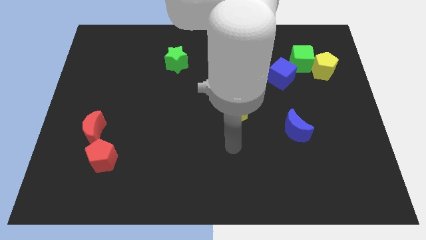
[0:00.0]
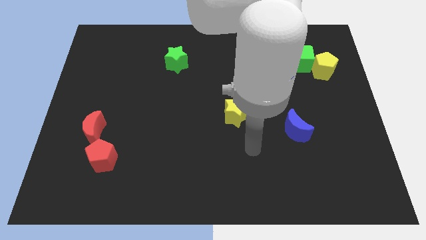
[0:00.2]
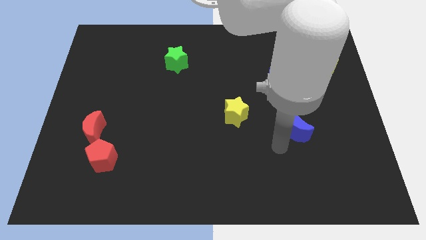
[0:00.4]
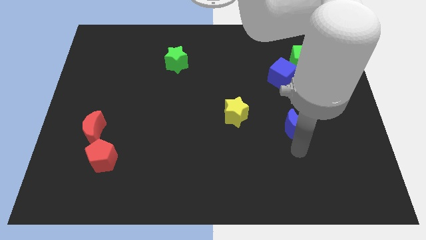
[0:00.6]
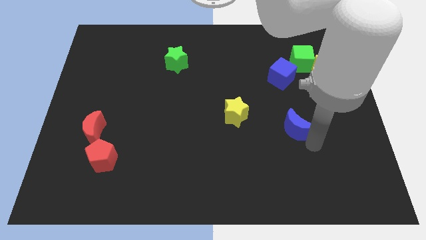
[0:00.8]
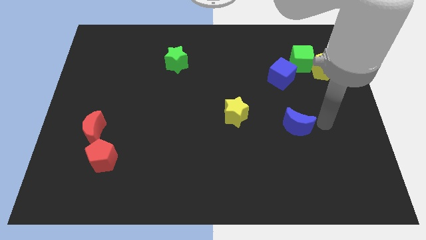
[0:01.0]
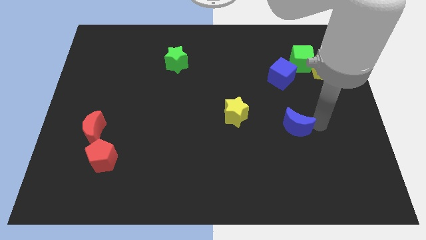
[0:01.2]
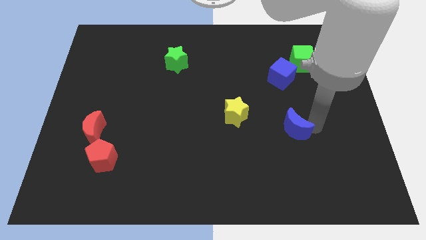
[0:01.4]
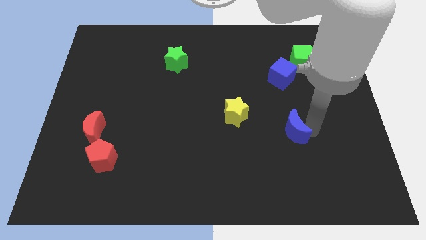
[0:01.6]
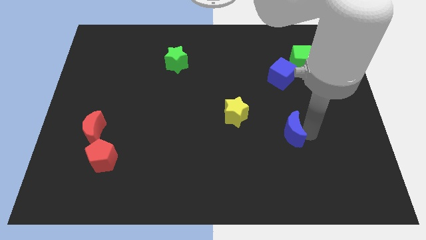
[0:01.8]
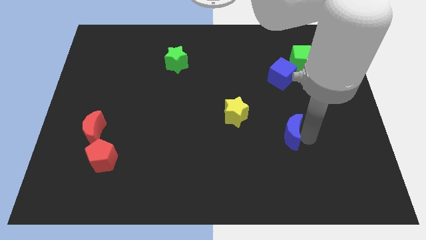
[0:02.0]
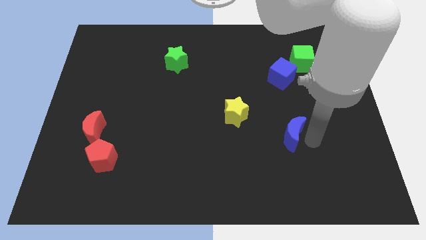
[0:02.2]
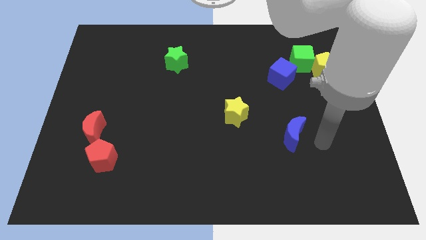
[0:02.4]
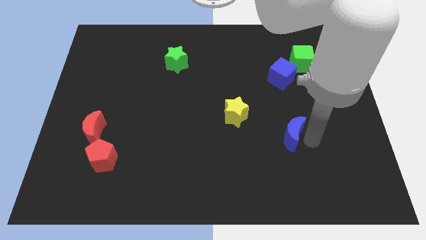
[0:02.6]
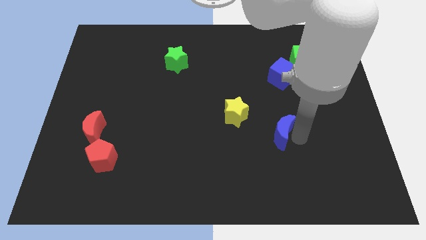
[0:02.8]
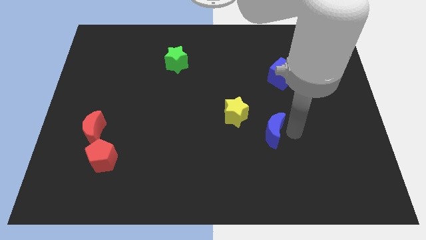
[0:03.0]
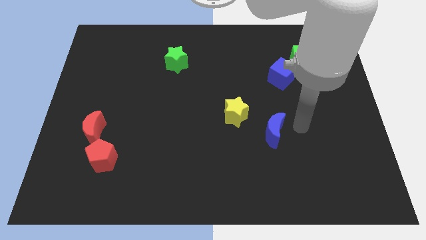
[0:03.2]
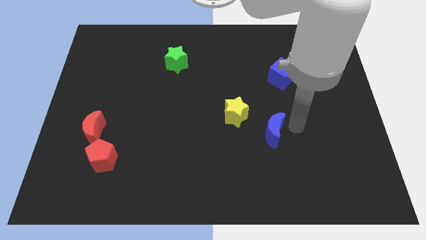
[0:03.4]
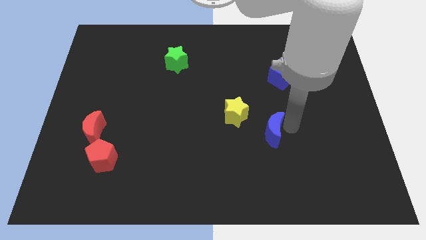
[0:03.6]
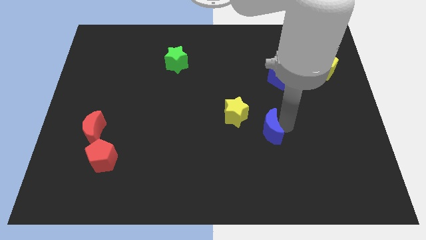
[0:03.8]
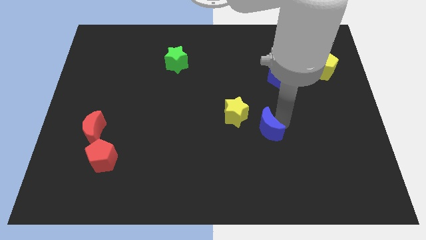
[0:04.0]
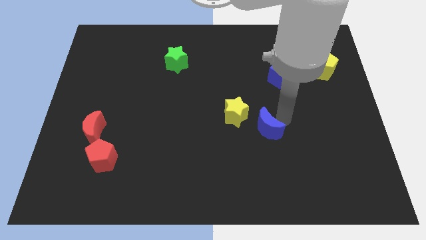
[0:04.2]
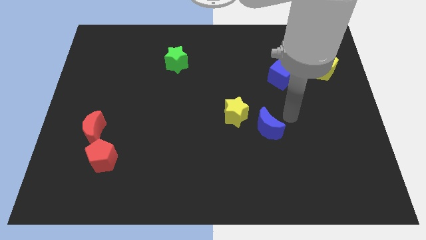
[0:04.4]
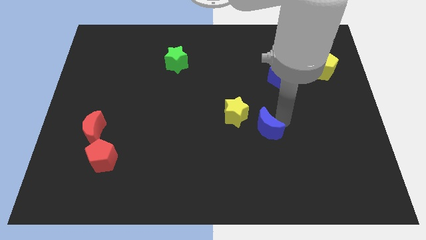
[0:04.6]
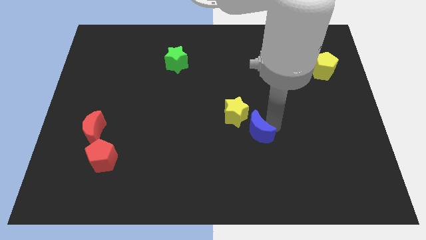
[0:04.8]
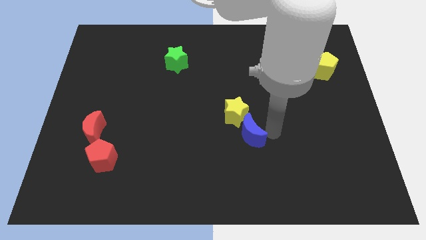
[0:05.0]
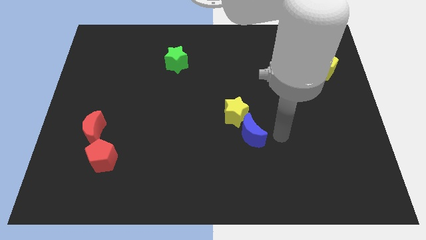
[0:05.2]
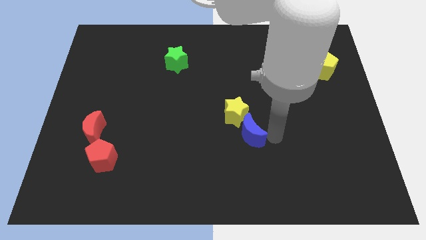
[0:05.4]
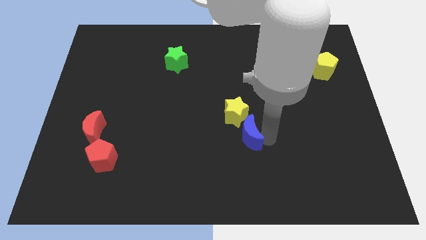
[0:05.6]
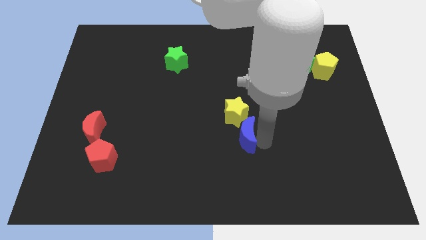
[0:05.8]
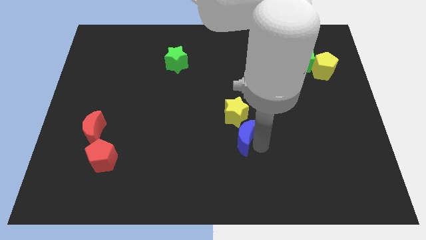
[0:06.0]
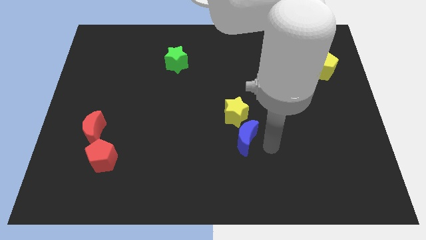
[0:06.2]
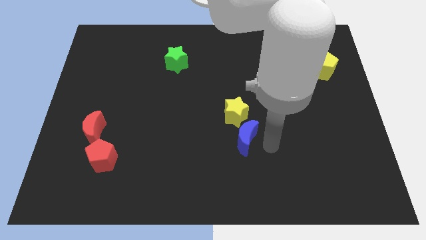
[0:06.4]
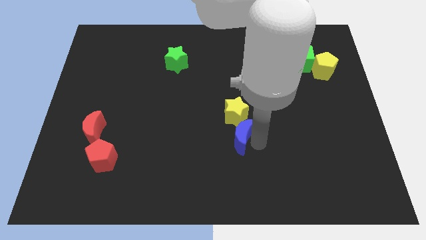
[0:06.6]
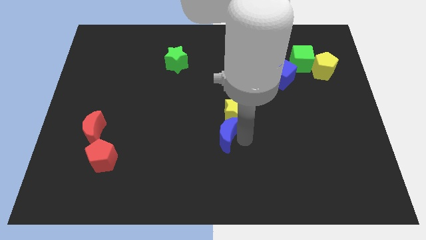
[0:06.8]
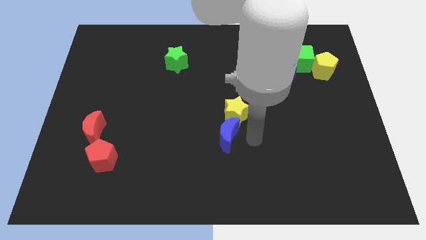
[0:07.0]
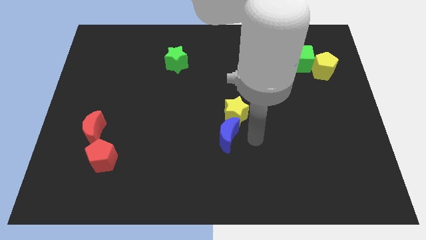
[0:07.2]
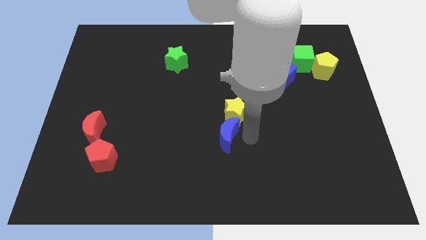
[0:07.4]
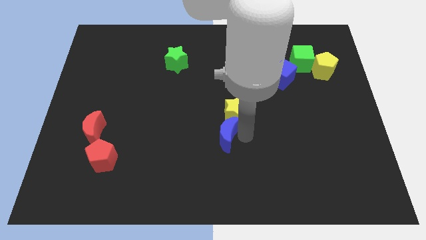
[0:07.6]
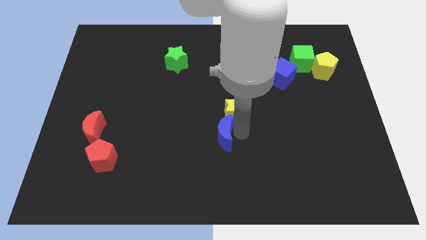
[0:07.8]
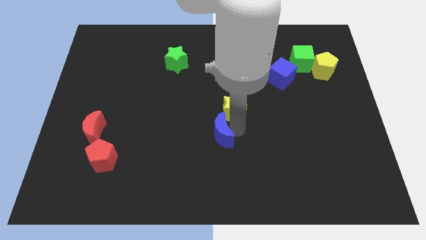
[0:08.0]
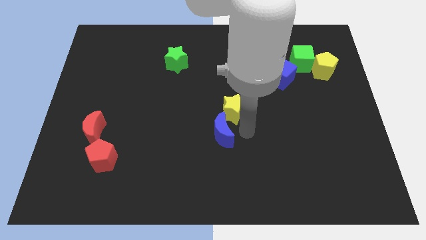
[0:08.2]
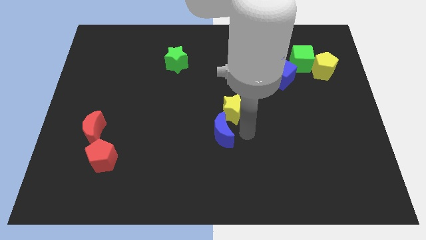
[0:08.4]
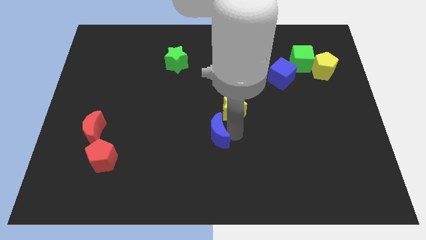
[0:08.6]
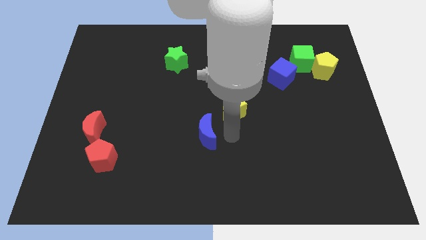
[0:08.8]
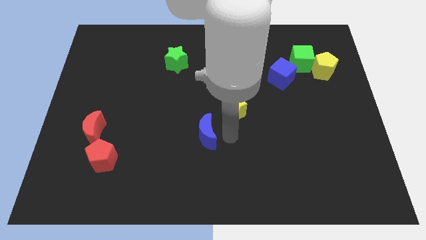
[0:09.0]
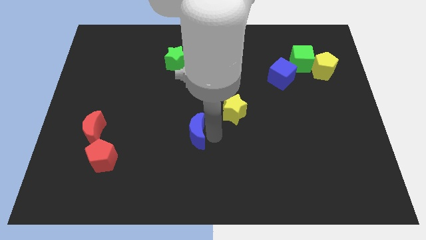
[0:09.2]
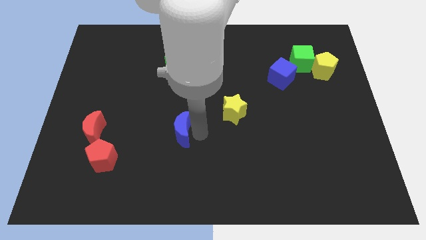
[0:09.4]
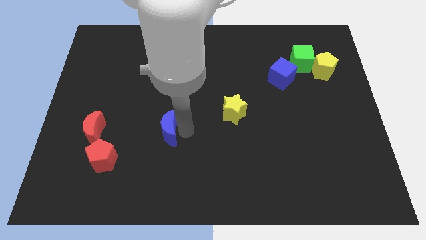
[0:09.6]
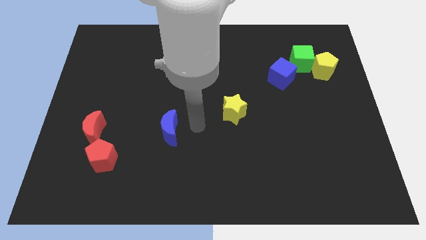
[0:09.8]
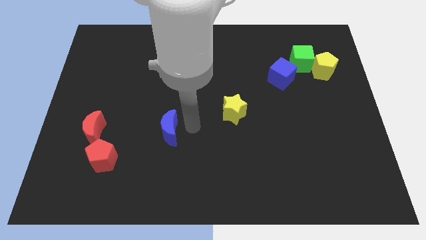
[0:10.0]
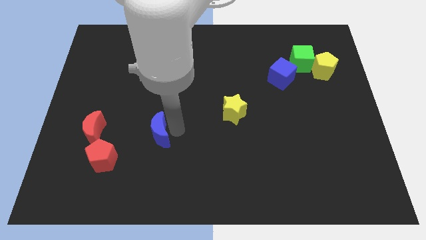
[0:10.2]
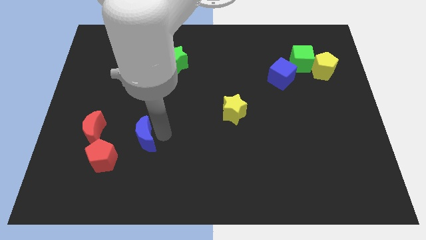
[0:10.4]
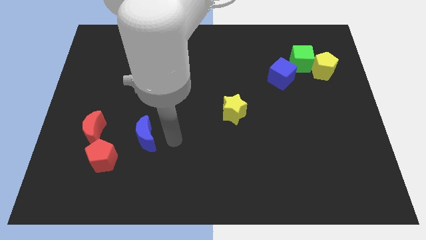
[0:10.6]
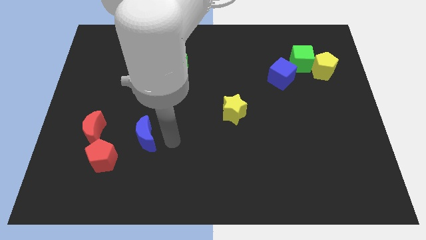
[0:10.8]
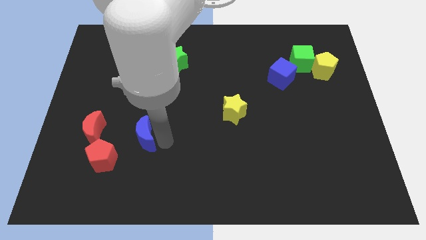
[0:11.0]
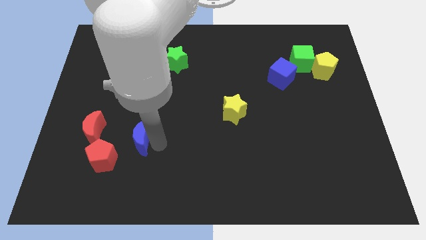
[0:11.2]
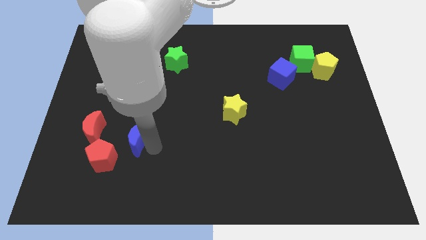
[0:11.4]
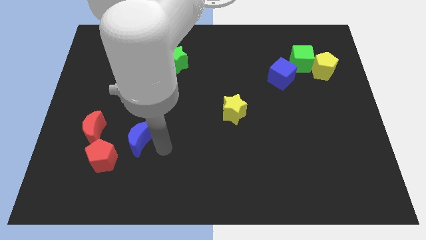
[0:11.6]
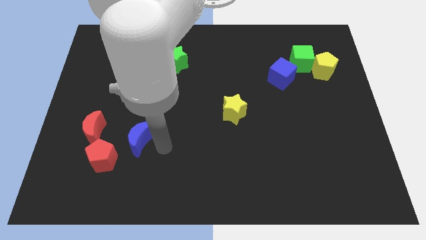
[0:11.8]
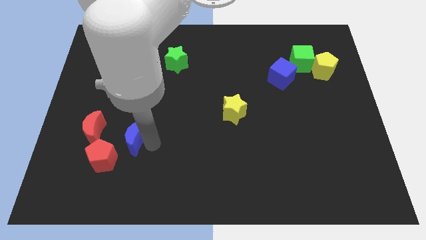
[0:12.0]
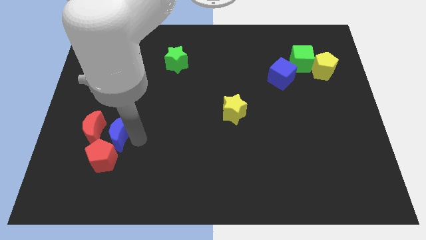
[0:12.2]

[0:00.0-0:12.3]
move the blue moon next to the red moon

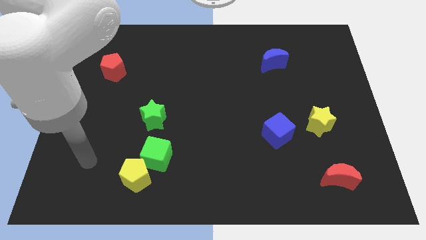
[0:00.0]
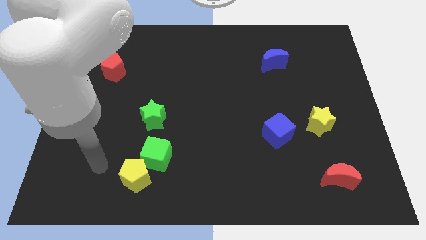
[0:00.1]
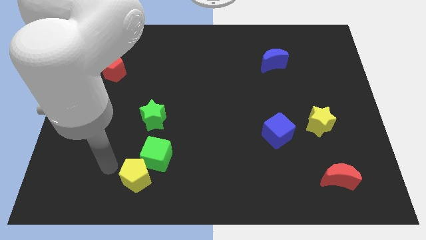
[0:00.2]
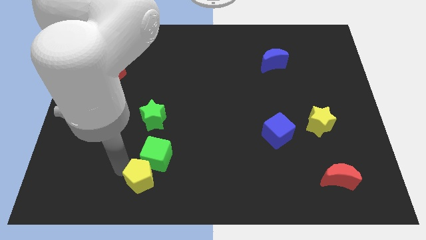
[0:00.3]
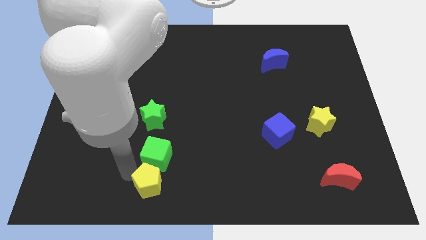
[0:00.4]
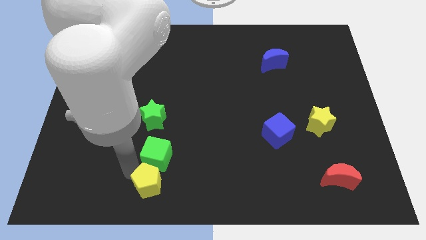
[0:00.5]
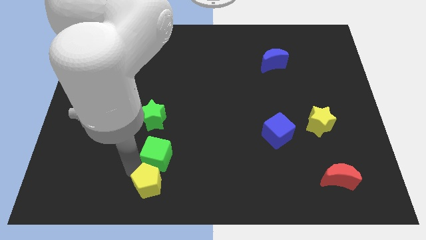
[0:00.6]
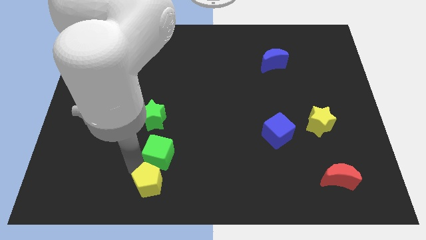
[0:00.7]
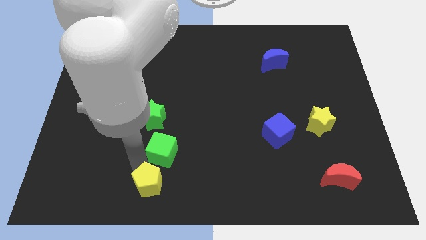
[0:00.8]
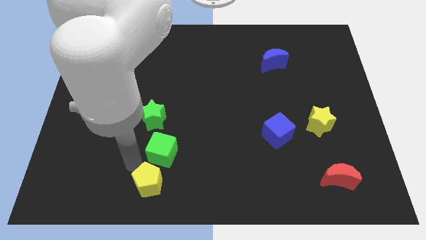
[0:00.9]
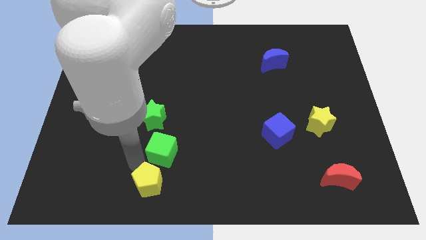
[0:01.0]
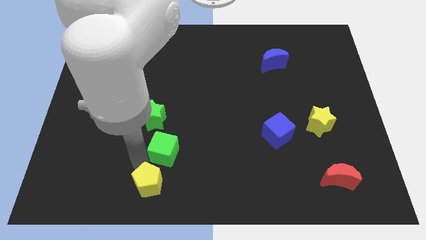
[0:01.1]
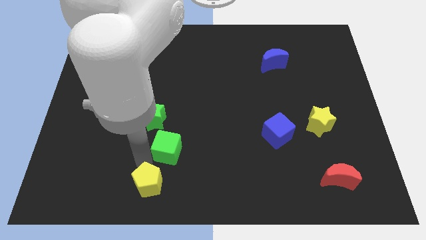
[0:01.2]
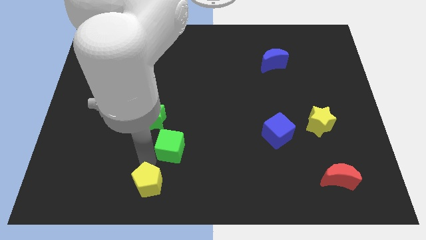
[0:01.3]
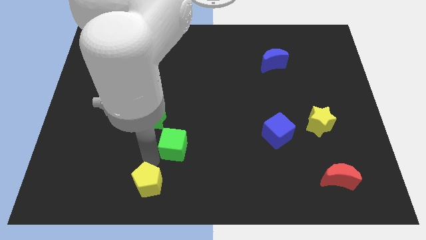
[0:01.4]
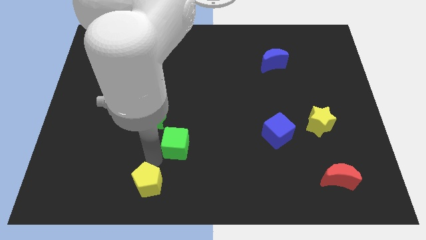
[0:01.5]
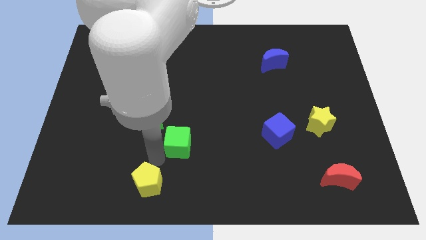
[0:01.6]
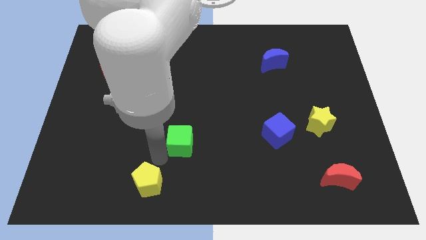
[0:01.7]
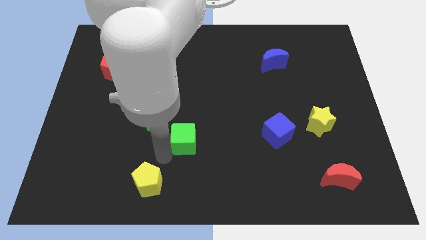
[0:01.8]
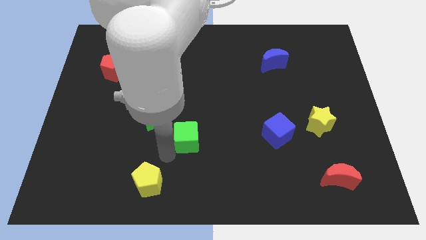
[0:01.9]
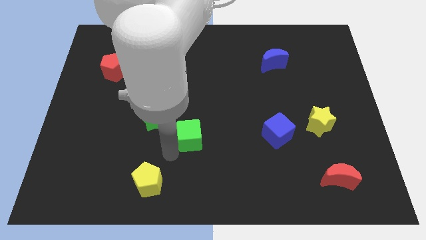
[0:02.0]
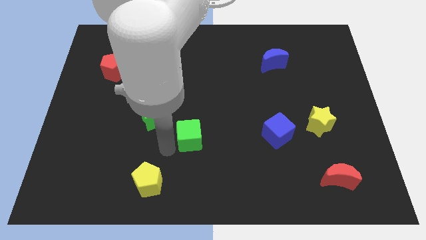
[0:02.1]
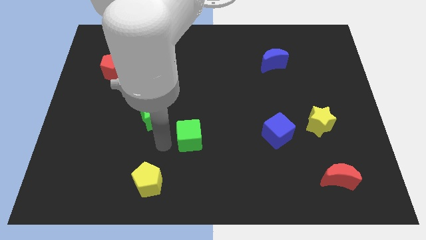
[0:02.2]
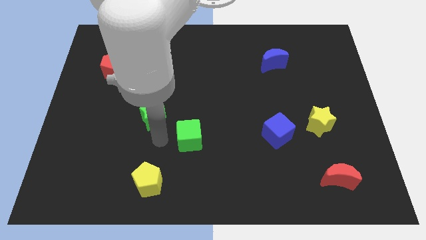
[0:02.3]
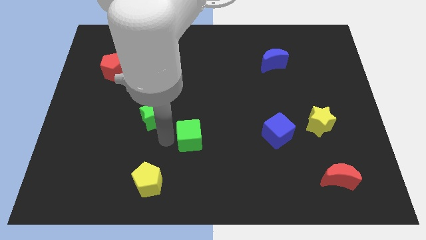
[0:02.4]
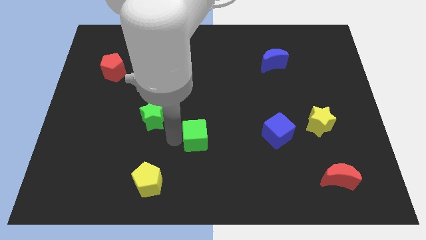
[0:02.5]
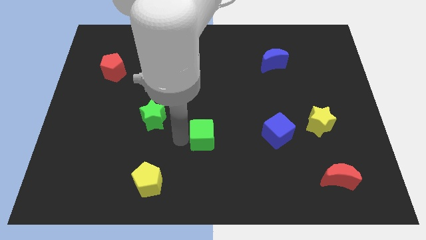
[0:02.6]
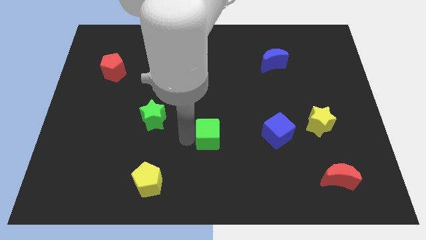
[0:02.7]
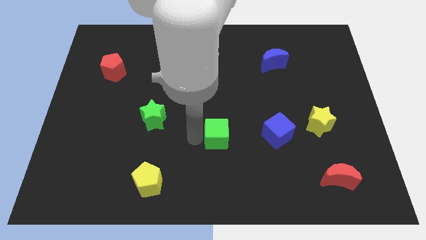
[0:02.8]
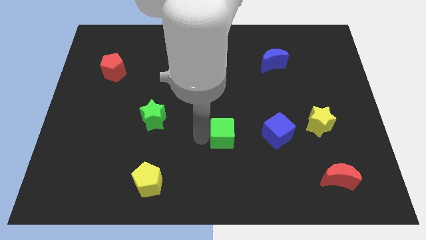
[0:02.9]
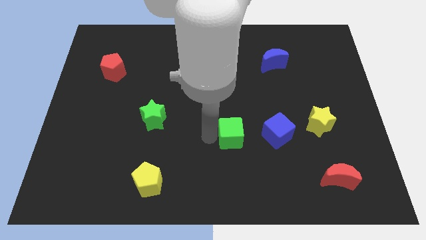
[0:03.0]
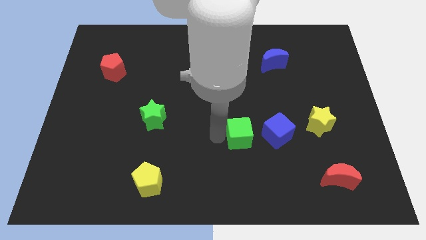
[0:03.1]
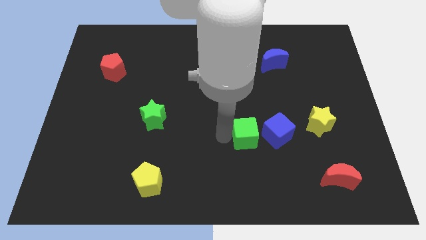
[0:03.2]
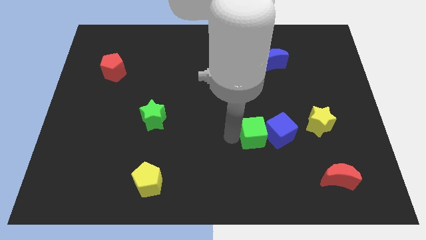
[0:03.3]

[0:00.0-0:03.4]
move the green cube close to the blue cube
